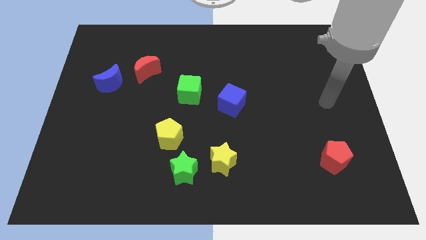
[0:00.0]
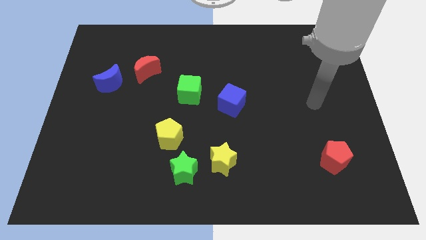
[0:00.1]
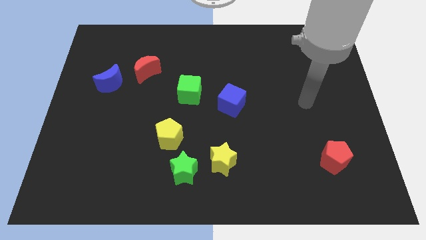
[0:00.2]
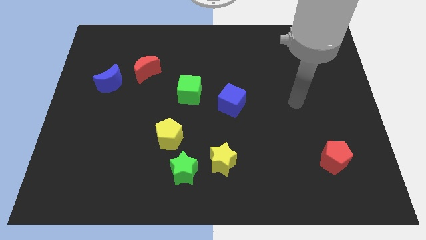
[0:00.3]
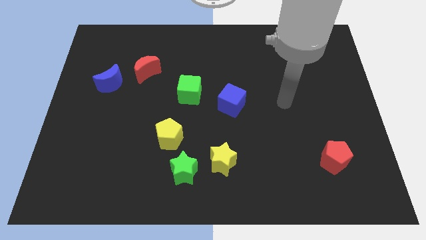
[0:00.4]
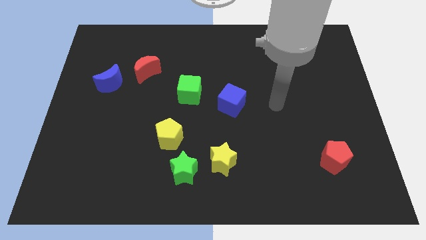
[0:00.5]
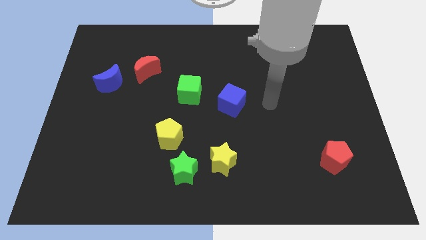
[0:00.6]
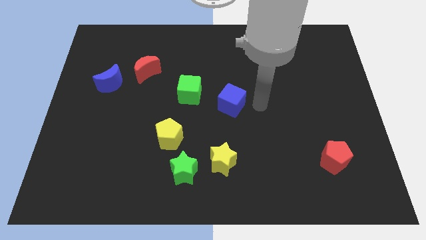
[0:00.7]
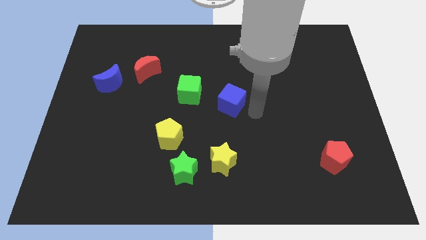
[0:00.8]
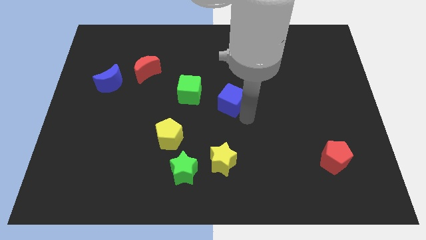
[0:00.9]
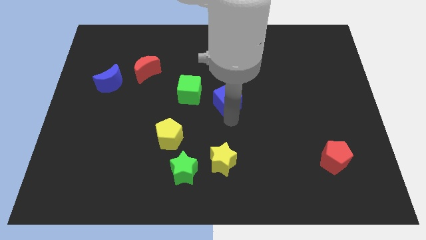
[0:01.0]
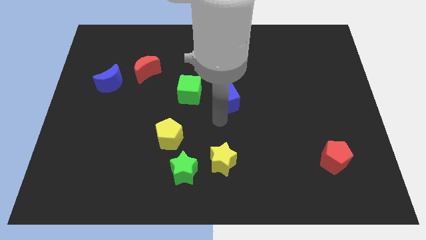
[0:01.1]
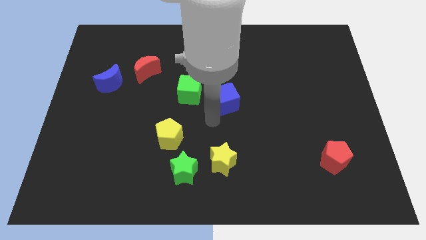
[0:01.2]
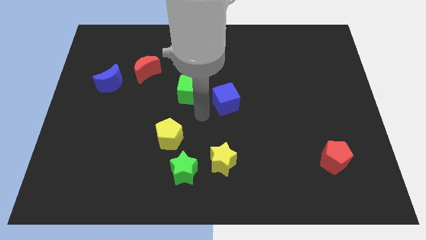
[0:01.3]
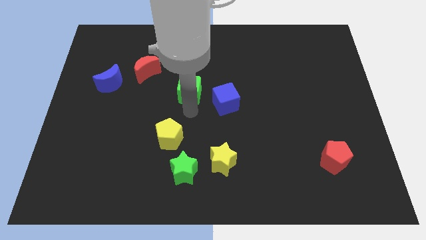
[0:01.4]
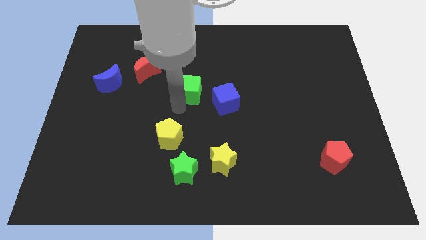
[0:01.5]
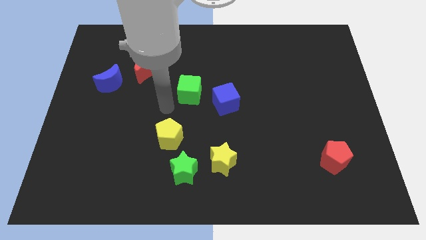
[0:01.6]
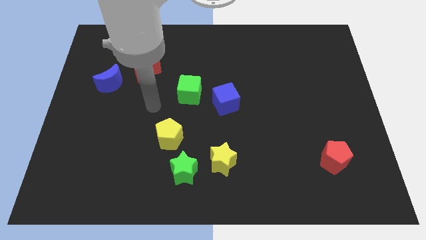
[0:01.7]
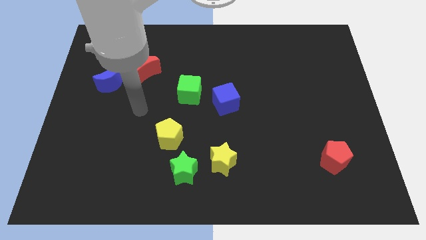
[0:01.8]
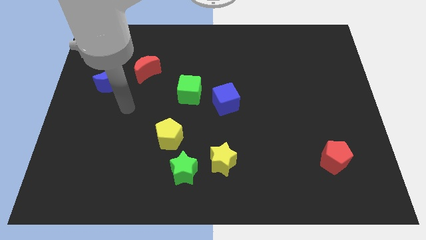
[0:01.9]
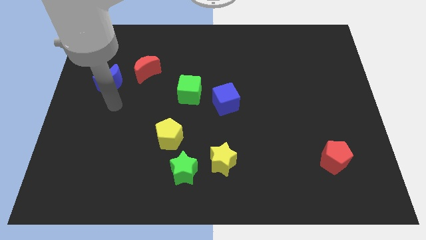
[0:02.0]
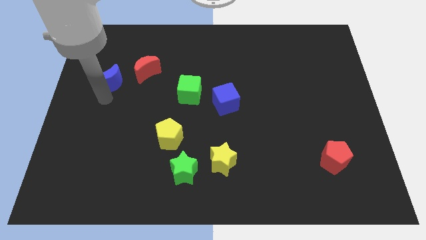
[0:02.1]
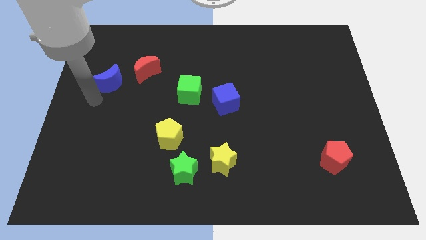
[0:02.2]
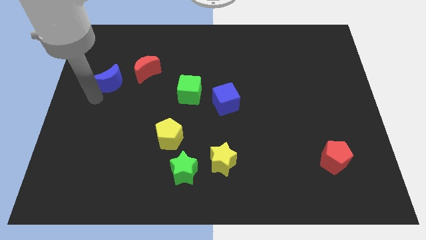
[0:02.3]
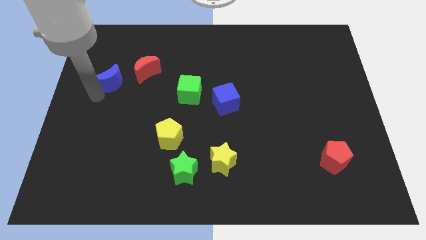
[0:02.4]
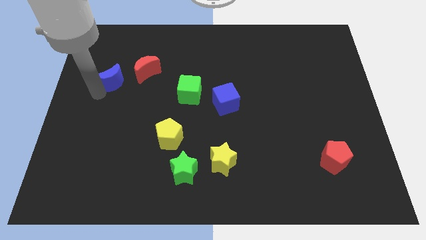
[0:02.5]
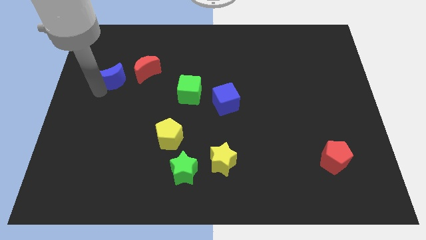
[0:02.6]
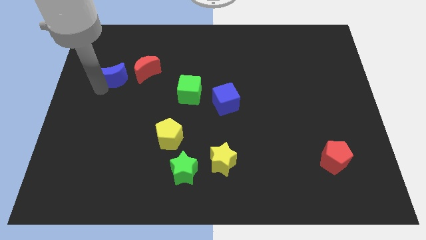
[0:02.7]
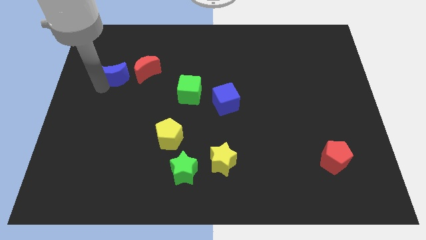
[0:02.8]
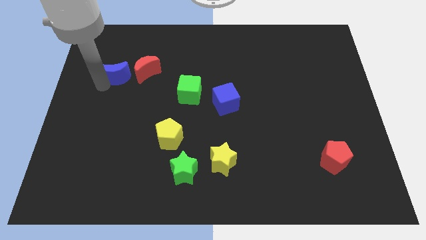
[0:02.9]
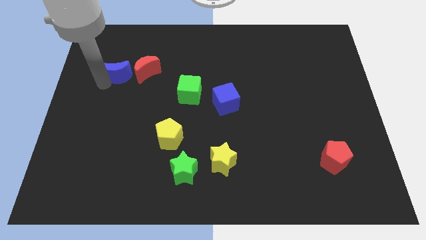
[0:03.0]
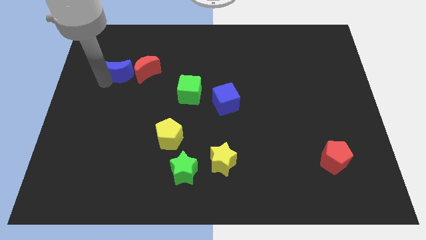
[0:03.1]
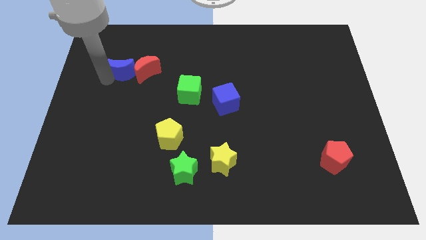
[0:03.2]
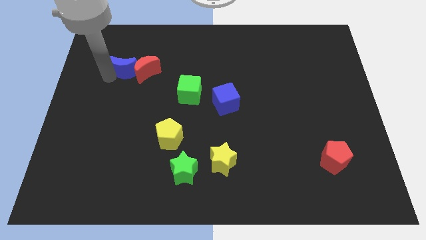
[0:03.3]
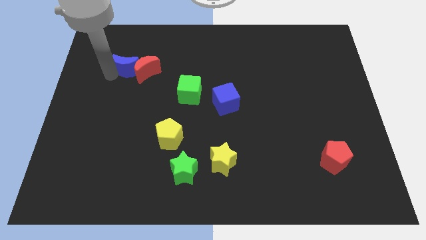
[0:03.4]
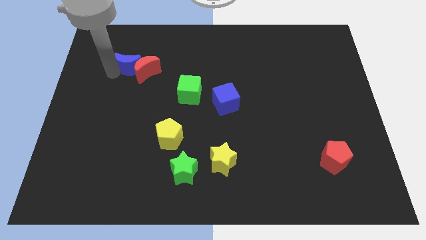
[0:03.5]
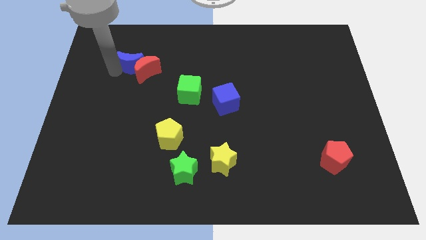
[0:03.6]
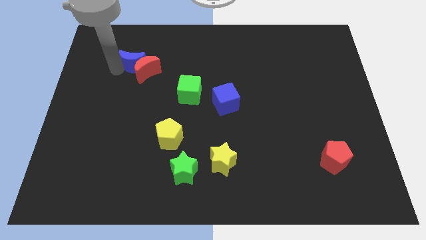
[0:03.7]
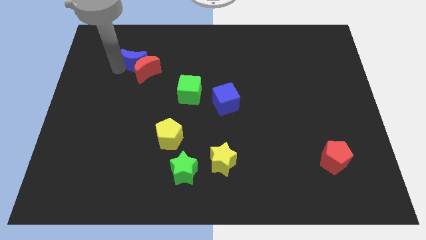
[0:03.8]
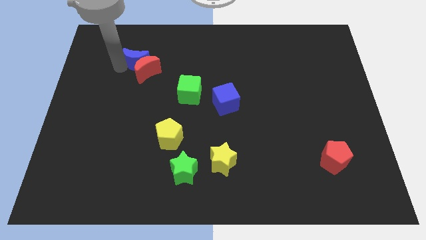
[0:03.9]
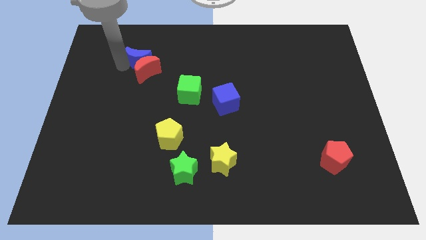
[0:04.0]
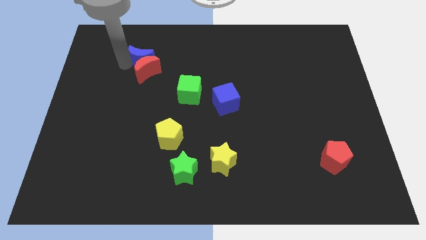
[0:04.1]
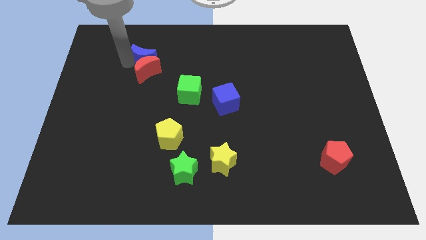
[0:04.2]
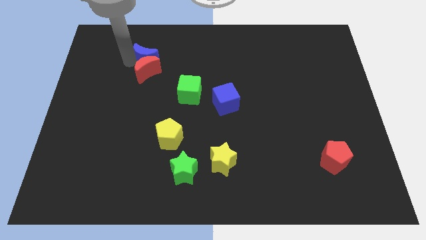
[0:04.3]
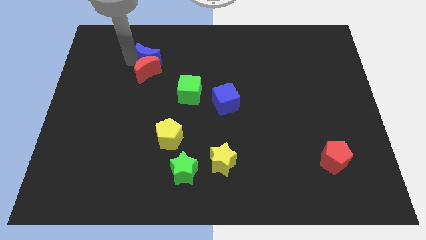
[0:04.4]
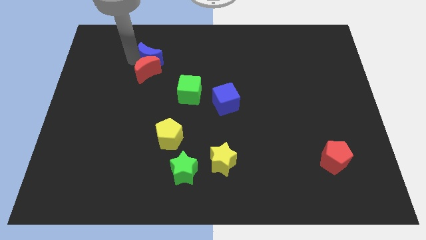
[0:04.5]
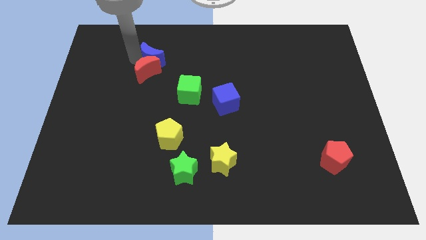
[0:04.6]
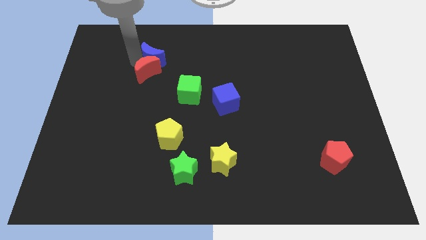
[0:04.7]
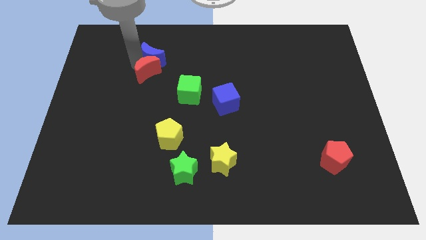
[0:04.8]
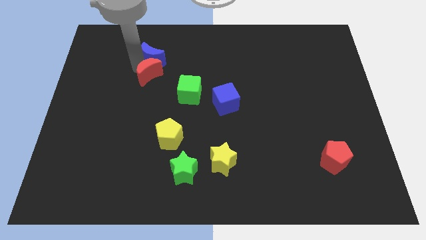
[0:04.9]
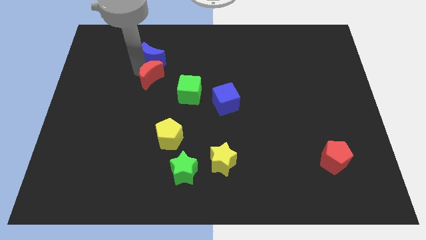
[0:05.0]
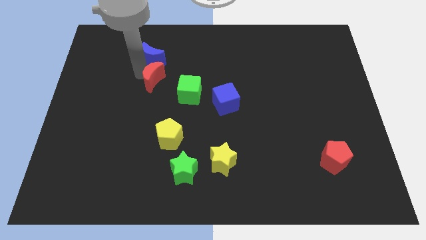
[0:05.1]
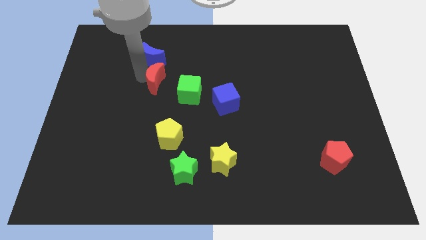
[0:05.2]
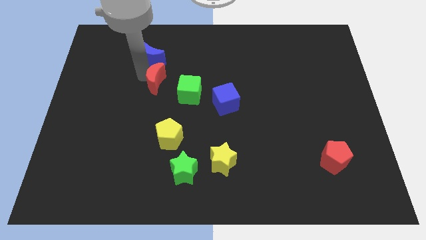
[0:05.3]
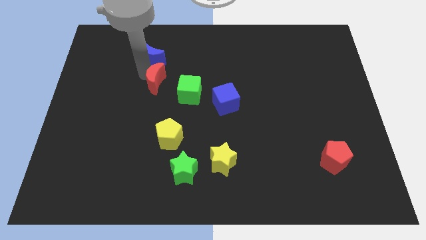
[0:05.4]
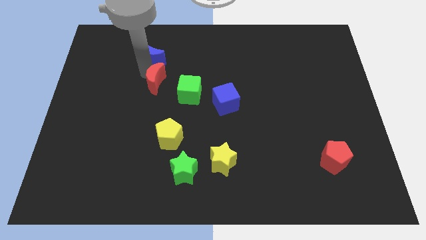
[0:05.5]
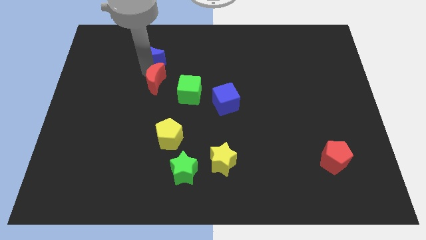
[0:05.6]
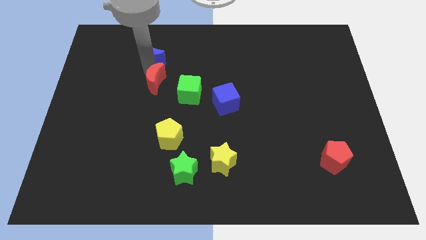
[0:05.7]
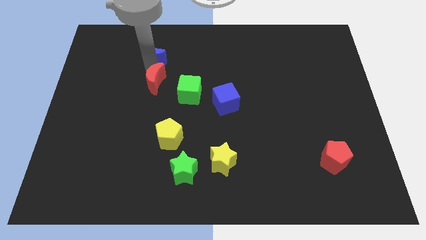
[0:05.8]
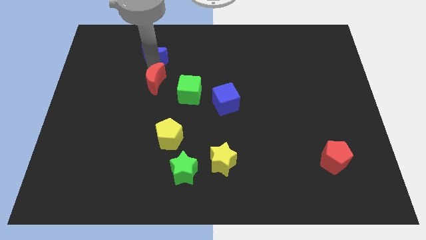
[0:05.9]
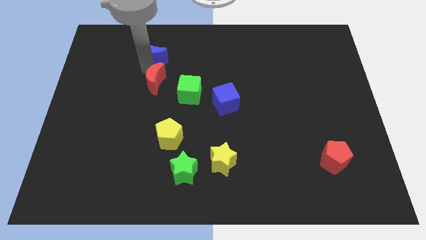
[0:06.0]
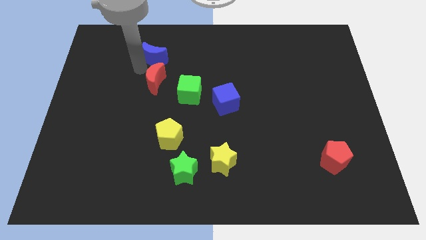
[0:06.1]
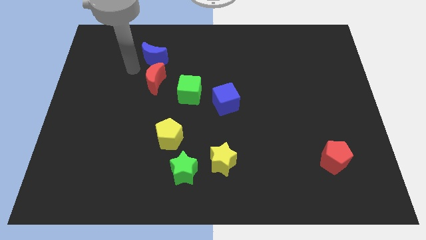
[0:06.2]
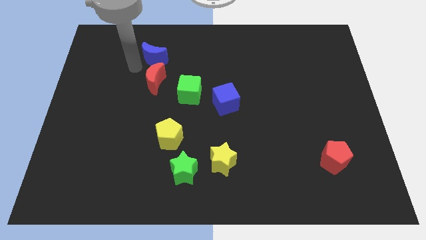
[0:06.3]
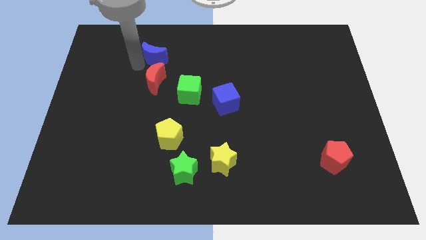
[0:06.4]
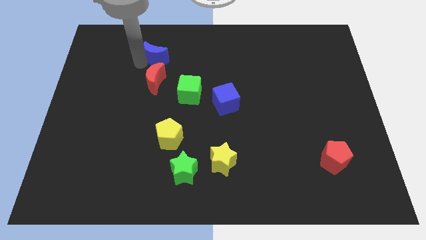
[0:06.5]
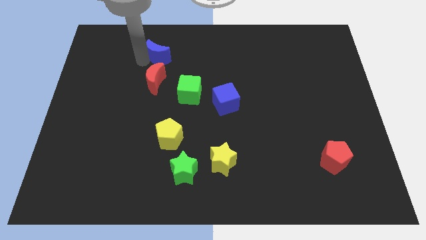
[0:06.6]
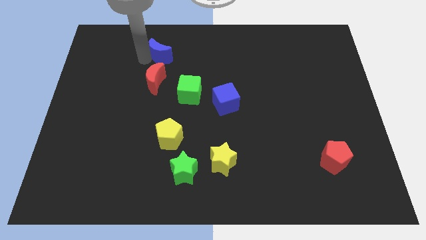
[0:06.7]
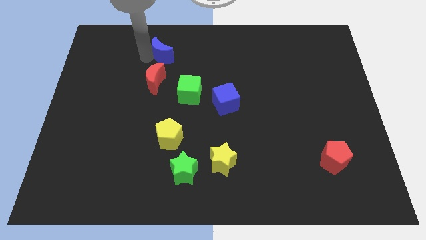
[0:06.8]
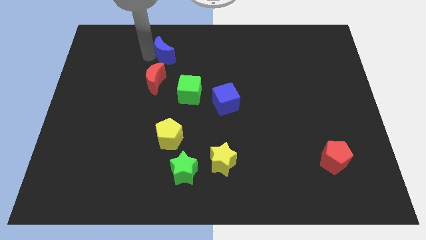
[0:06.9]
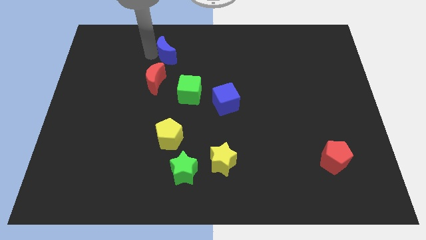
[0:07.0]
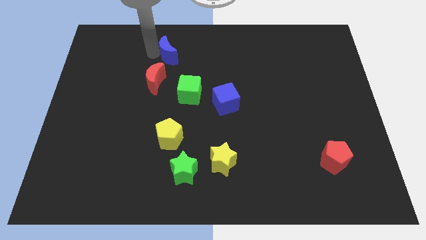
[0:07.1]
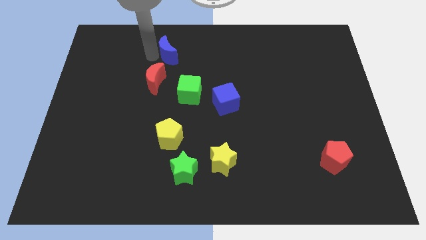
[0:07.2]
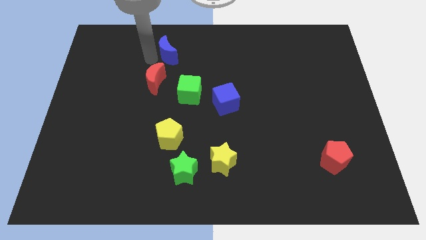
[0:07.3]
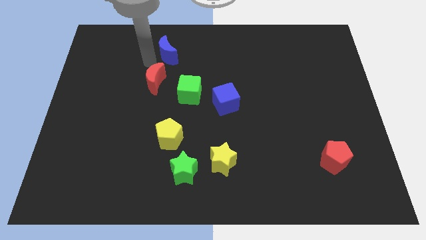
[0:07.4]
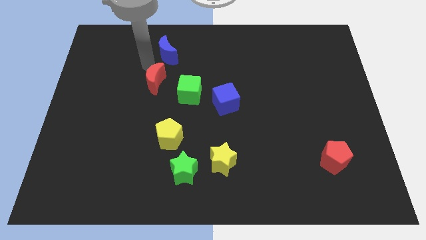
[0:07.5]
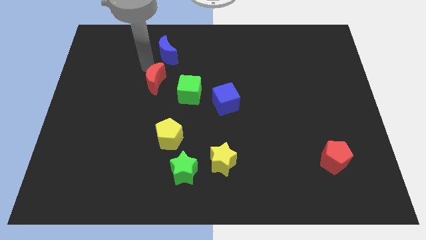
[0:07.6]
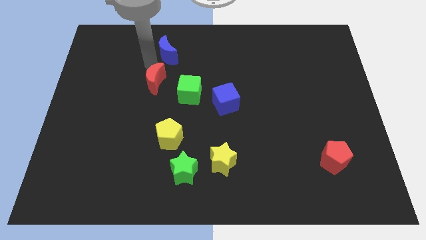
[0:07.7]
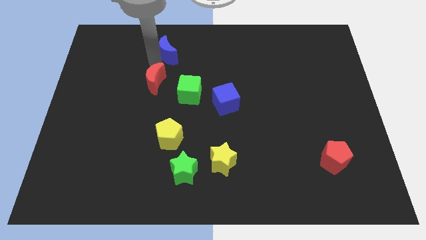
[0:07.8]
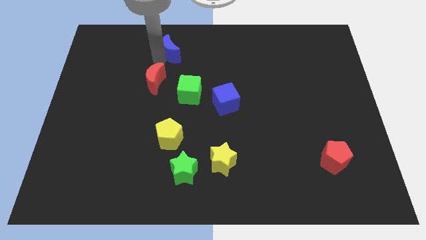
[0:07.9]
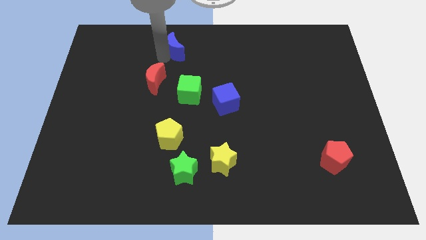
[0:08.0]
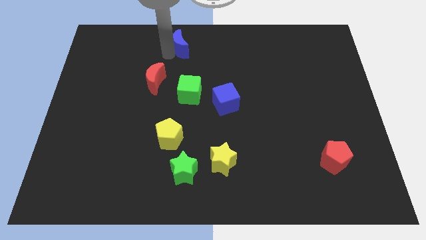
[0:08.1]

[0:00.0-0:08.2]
put the blue moon to the top
